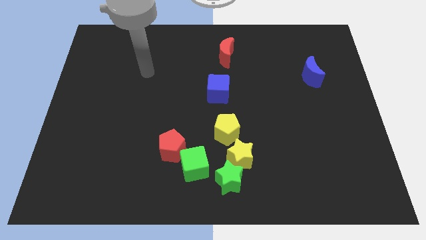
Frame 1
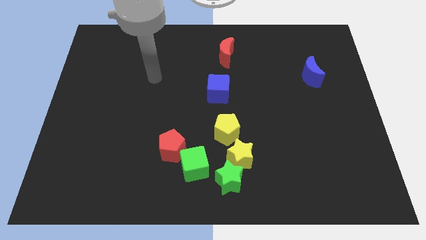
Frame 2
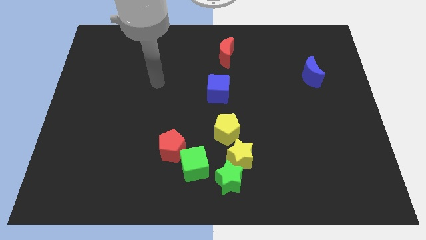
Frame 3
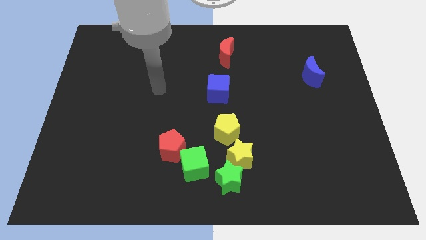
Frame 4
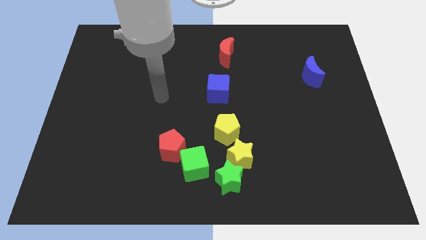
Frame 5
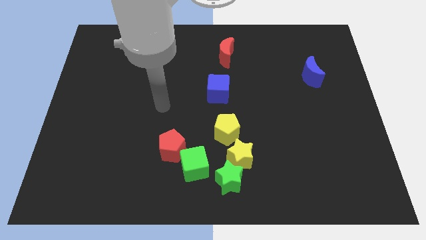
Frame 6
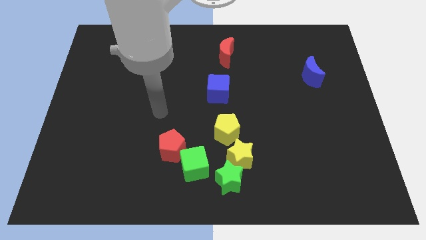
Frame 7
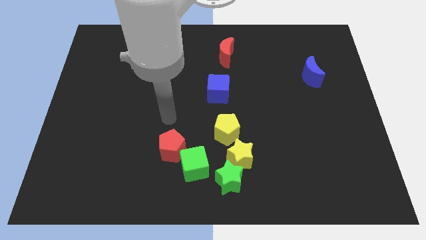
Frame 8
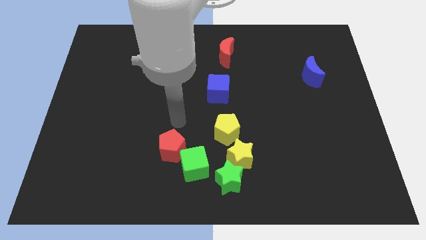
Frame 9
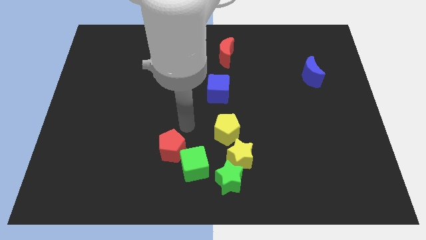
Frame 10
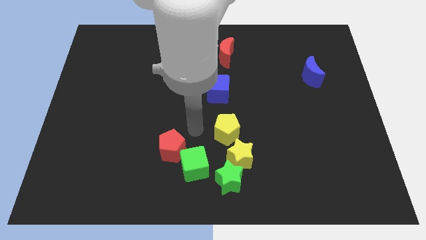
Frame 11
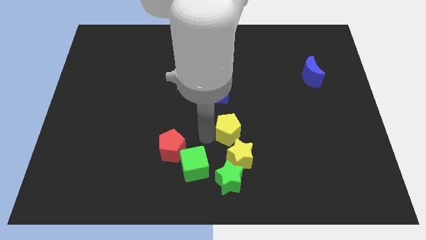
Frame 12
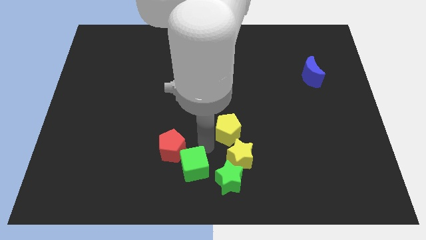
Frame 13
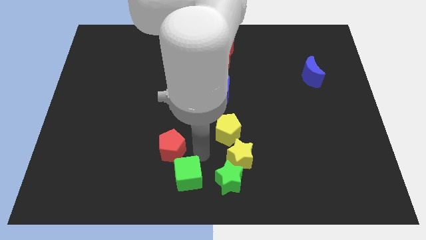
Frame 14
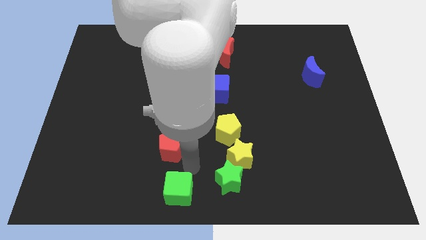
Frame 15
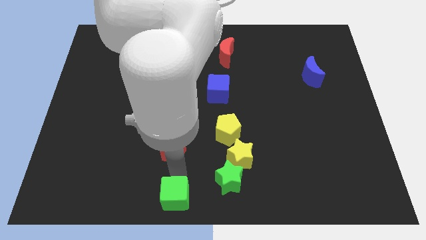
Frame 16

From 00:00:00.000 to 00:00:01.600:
pull the red pentagon apart from the green cube

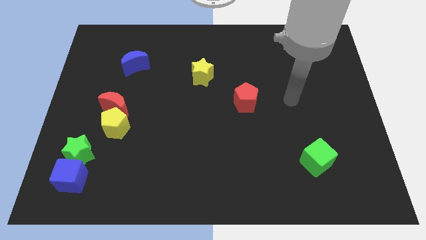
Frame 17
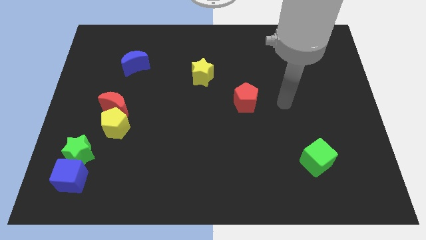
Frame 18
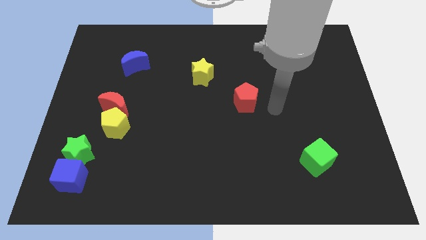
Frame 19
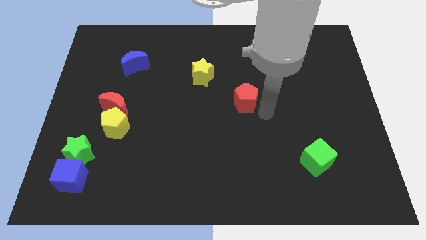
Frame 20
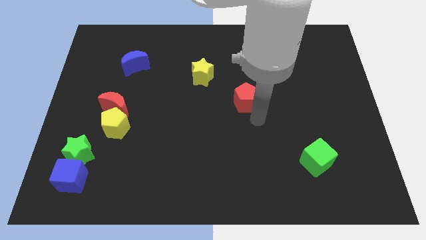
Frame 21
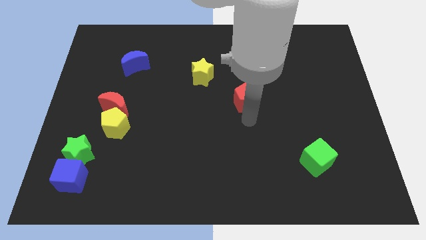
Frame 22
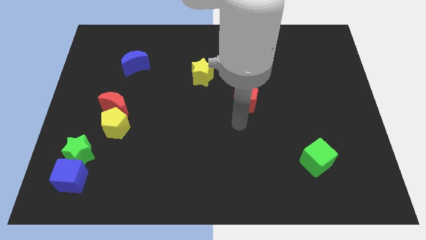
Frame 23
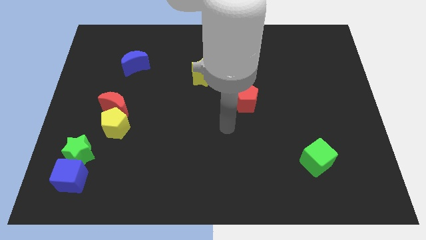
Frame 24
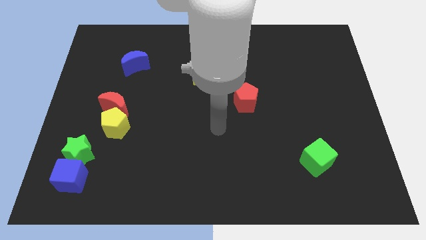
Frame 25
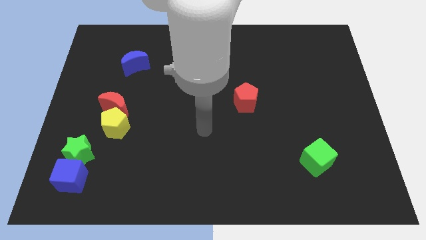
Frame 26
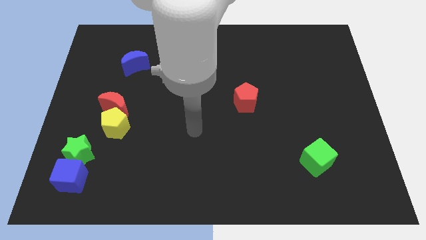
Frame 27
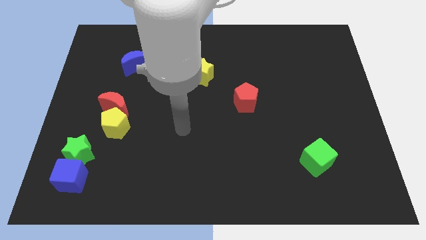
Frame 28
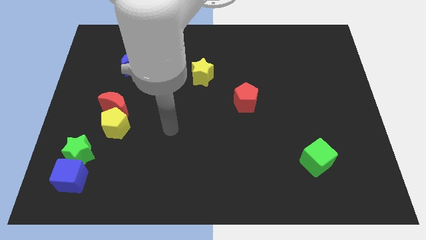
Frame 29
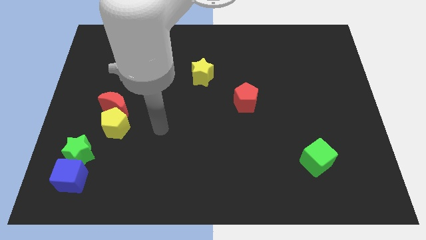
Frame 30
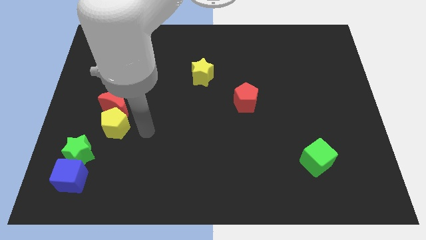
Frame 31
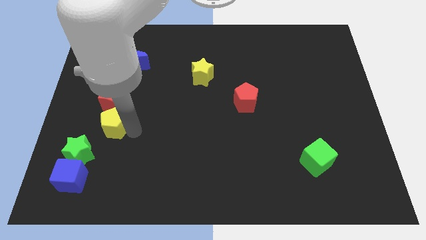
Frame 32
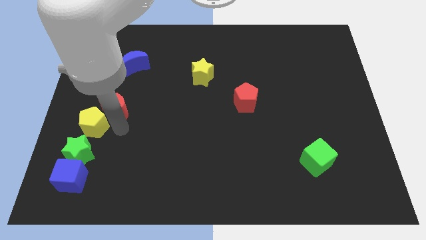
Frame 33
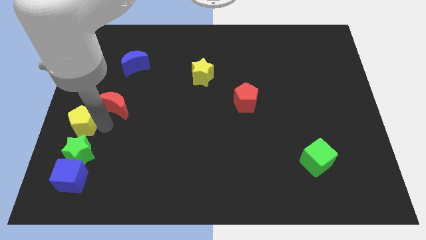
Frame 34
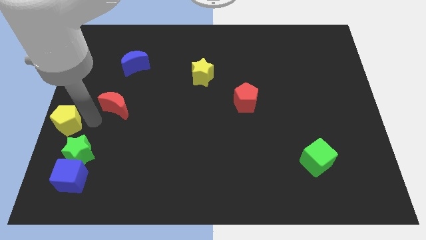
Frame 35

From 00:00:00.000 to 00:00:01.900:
pull the red moon apart from the yellow pentagon

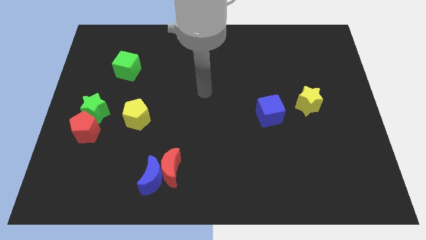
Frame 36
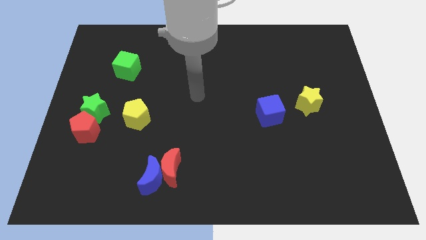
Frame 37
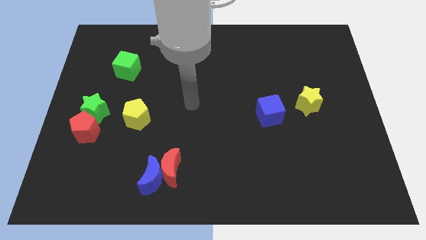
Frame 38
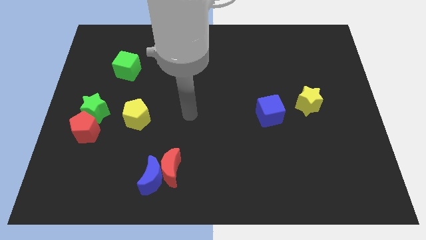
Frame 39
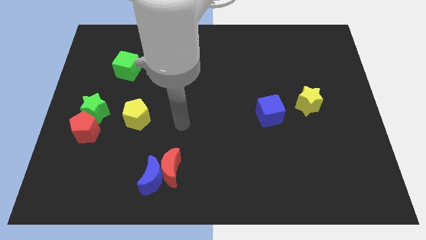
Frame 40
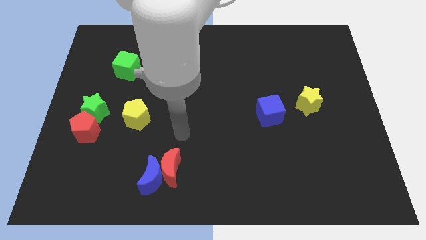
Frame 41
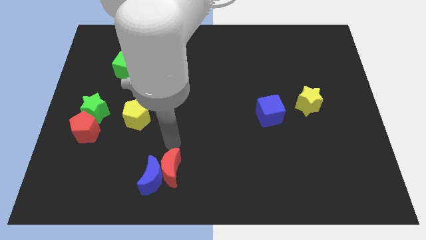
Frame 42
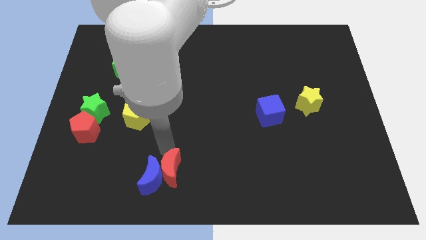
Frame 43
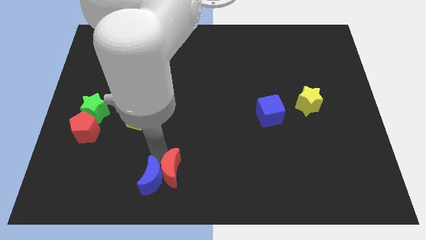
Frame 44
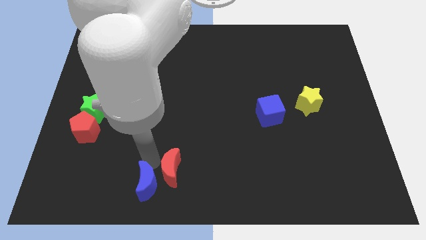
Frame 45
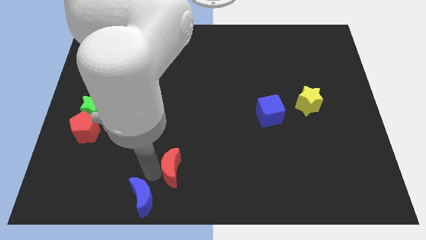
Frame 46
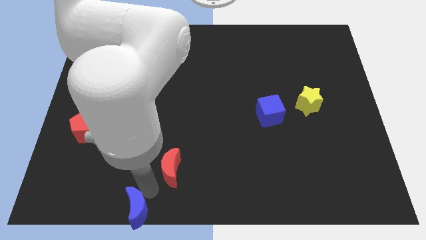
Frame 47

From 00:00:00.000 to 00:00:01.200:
move the red moon away from the blue moon

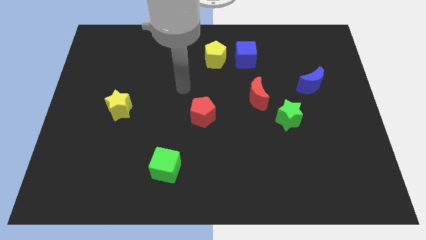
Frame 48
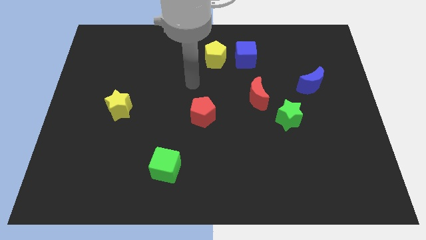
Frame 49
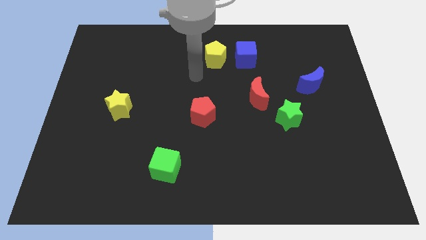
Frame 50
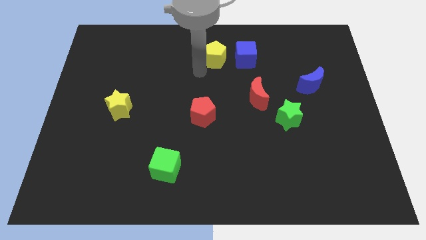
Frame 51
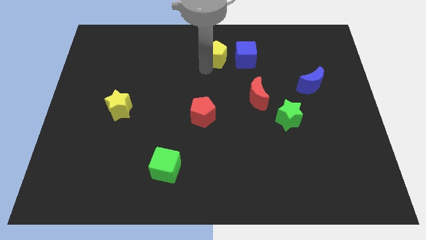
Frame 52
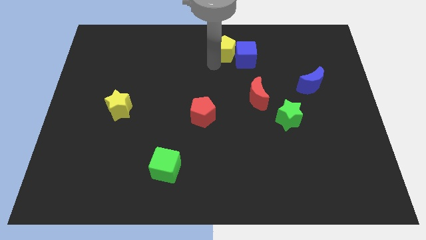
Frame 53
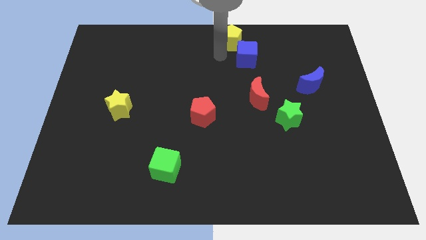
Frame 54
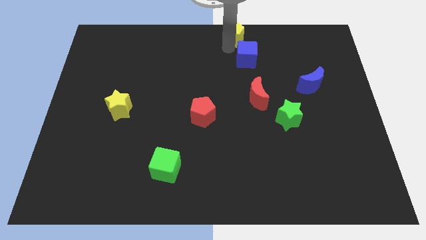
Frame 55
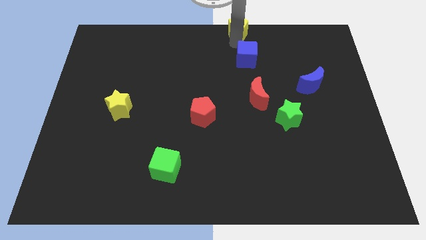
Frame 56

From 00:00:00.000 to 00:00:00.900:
separate the blue cube from the yellow pentagon

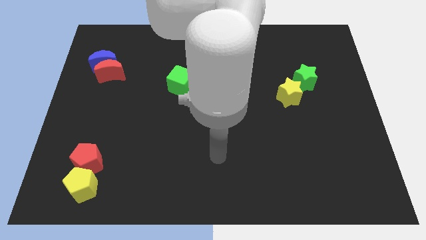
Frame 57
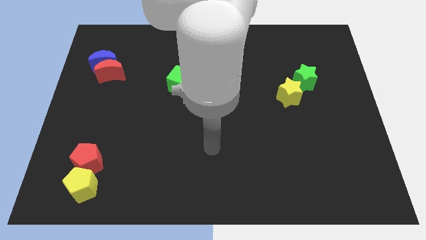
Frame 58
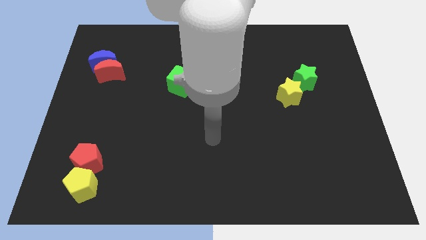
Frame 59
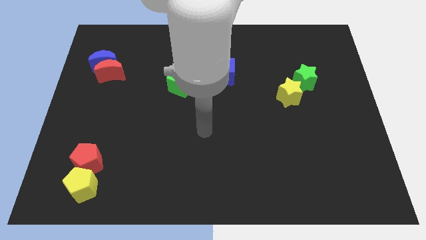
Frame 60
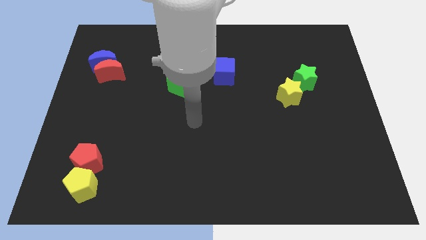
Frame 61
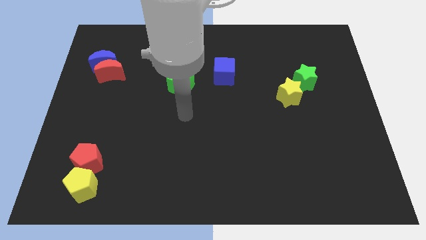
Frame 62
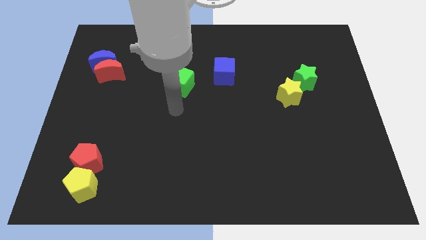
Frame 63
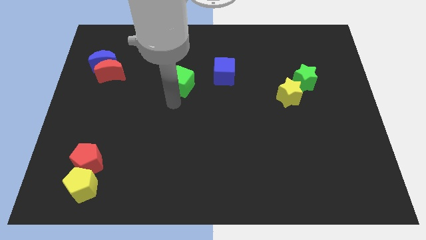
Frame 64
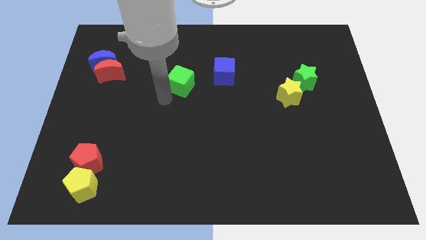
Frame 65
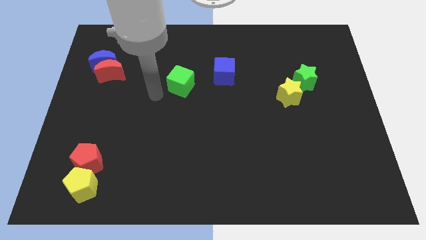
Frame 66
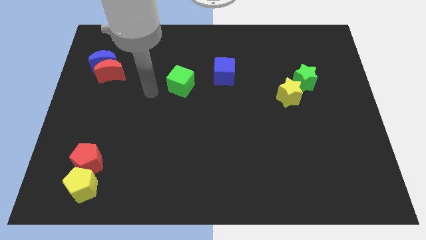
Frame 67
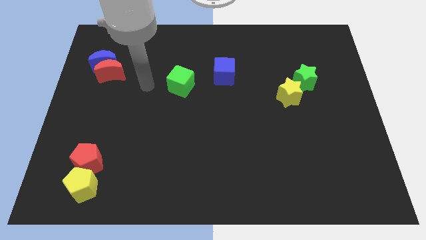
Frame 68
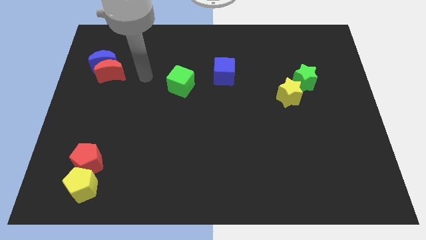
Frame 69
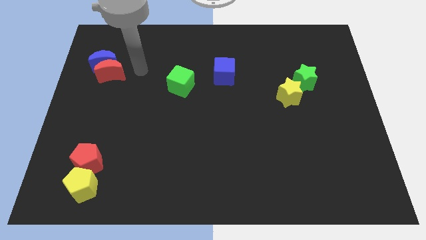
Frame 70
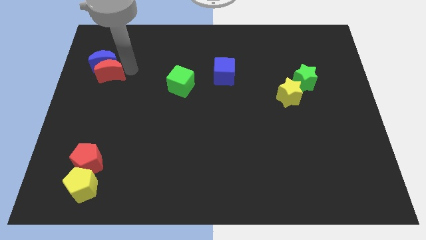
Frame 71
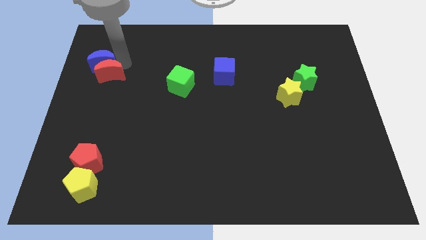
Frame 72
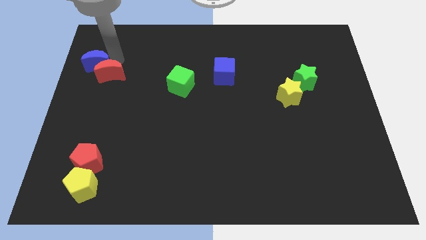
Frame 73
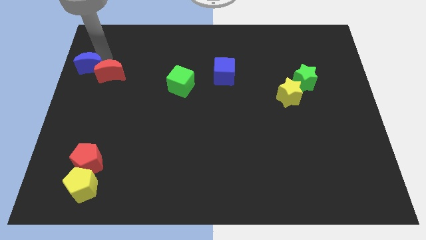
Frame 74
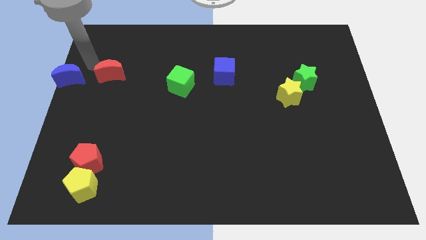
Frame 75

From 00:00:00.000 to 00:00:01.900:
pull the red moon apart from the blue moon

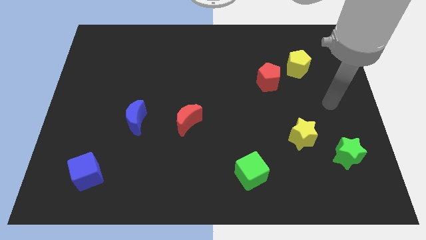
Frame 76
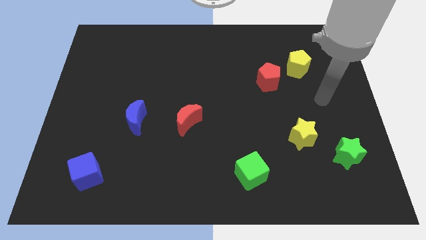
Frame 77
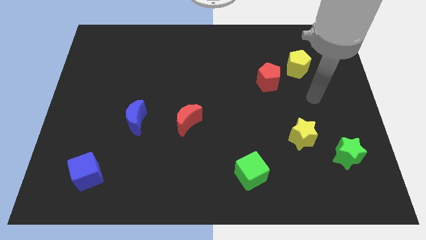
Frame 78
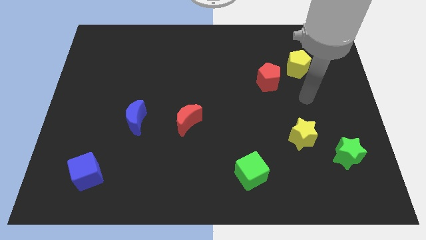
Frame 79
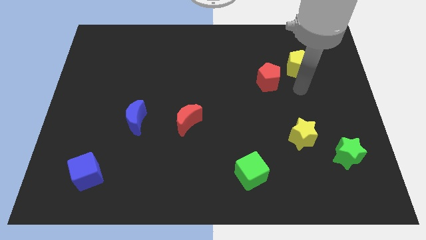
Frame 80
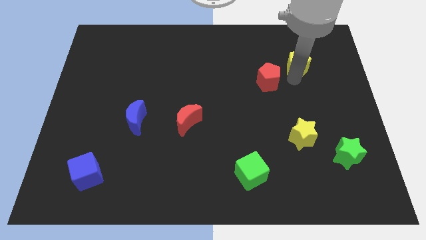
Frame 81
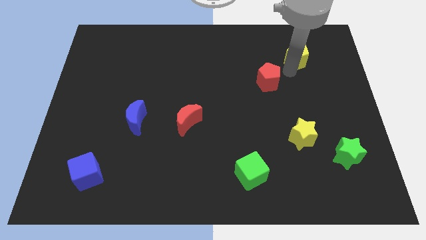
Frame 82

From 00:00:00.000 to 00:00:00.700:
pull the red pentagon apart from the yellow pentagon

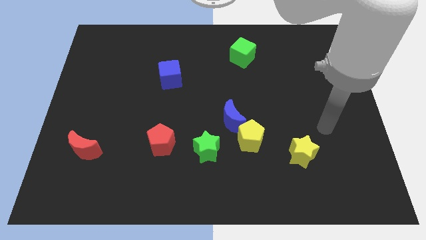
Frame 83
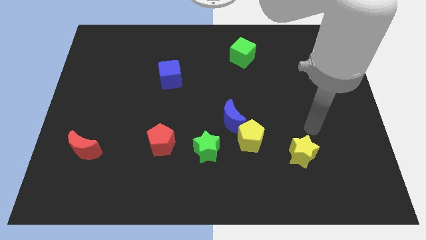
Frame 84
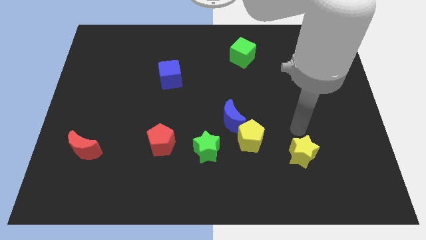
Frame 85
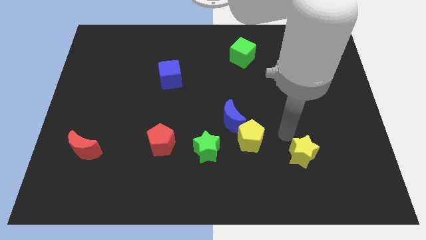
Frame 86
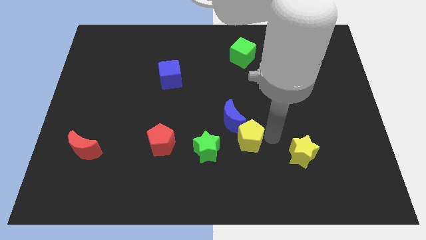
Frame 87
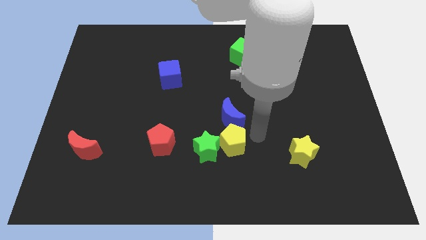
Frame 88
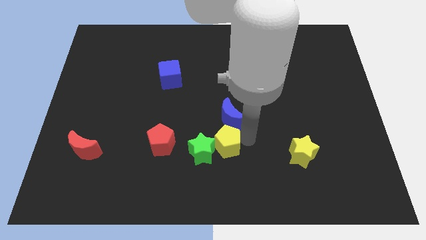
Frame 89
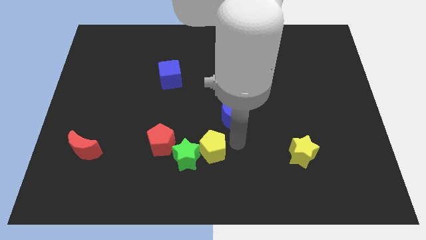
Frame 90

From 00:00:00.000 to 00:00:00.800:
pull the blue moon apart from the yellow pentagon and green star

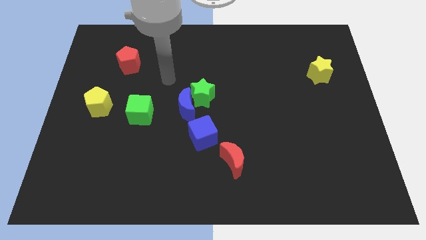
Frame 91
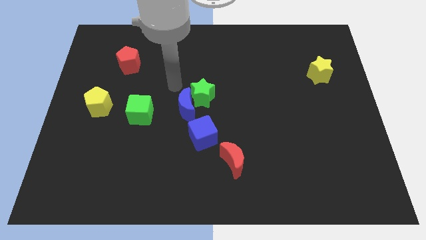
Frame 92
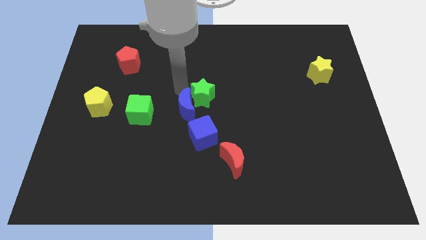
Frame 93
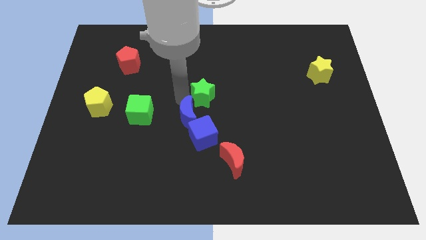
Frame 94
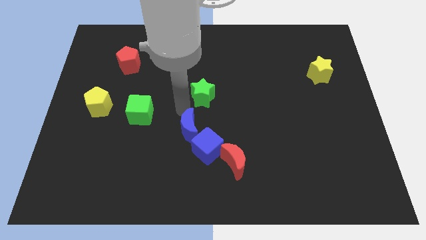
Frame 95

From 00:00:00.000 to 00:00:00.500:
pull the green star apart from the blue moon
